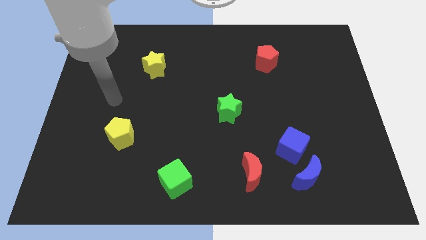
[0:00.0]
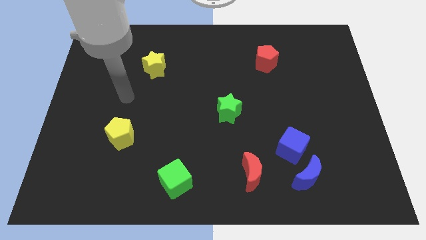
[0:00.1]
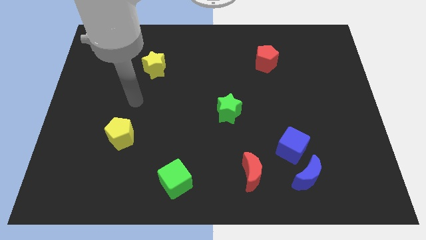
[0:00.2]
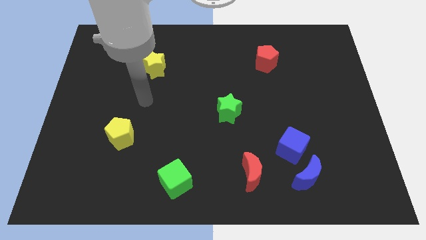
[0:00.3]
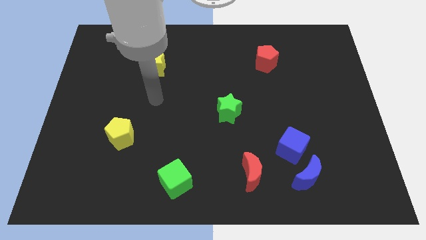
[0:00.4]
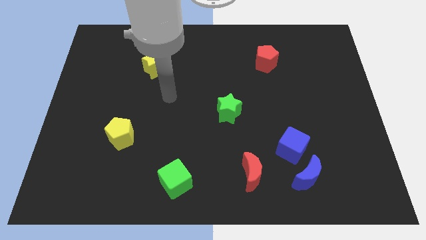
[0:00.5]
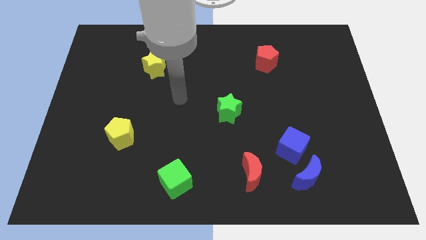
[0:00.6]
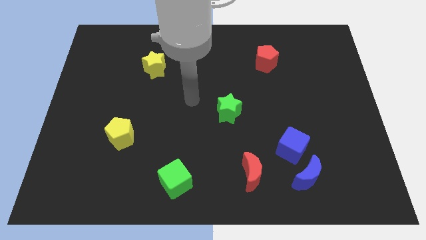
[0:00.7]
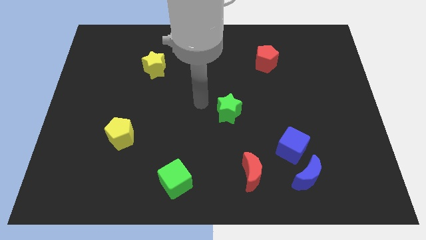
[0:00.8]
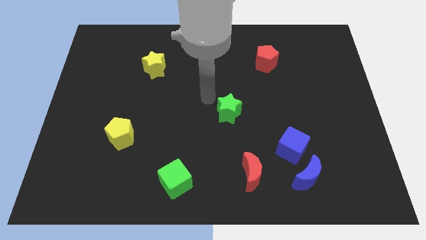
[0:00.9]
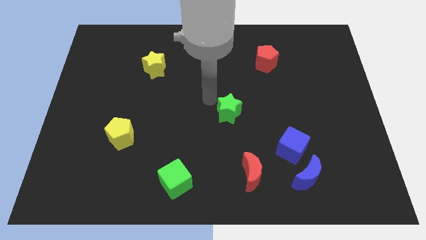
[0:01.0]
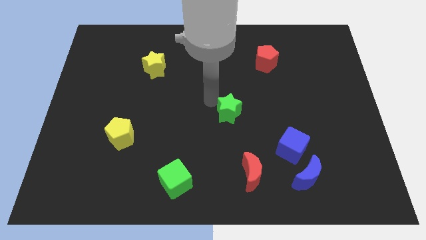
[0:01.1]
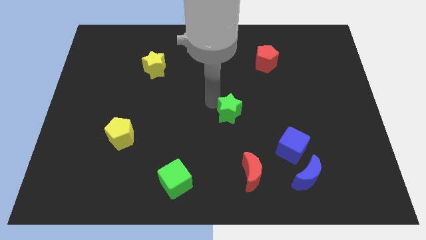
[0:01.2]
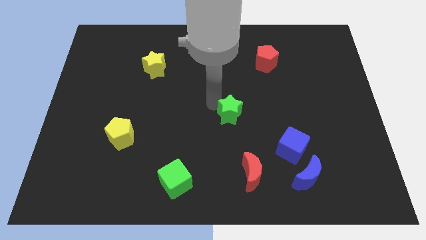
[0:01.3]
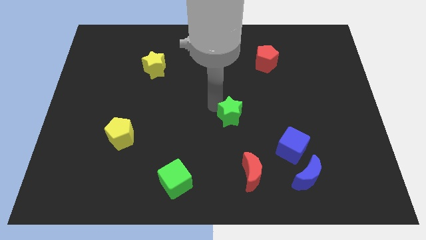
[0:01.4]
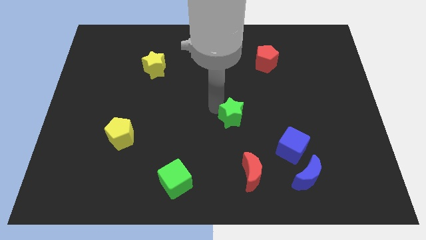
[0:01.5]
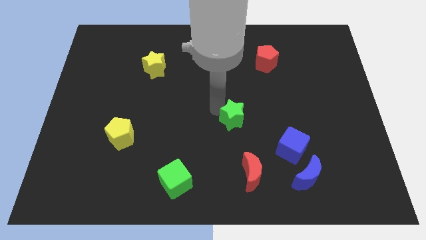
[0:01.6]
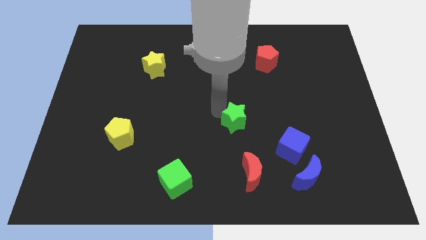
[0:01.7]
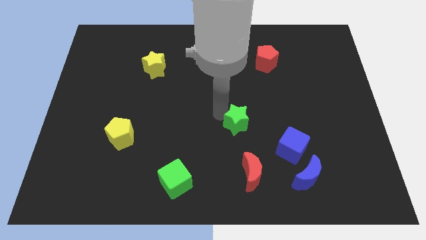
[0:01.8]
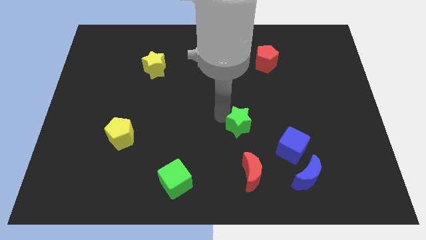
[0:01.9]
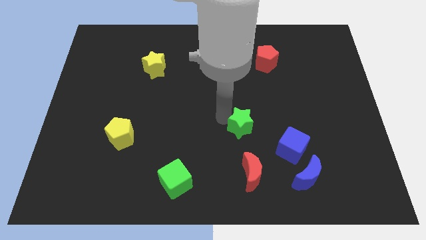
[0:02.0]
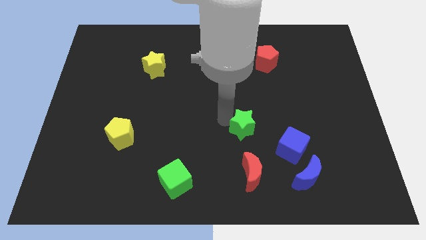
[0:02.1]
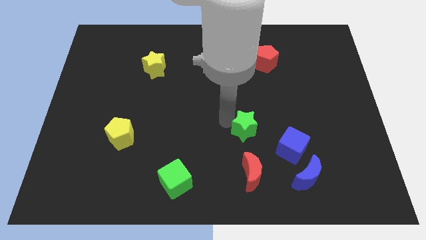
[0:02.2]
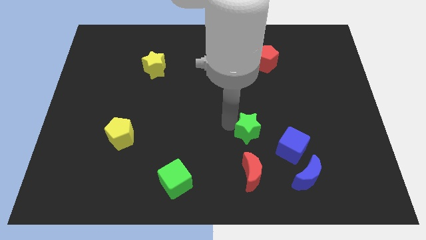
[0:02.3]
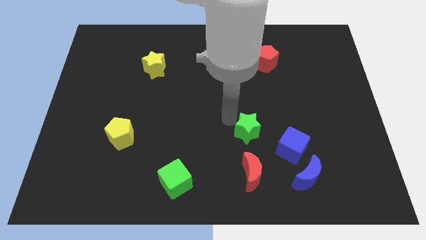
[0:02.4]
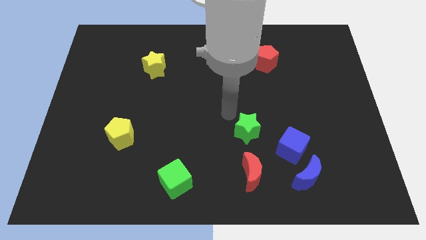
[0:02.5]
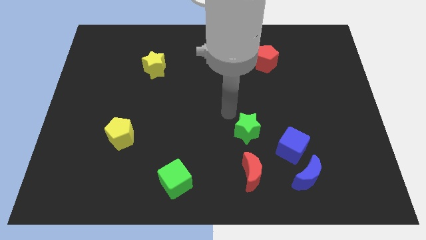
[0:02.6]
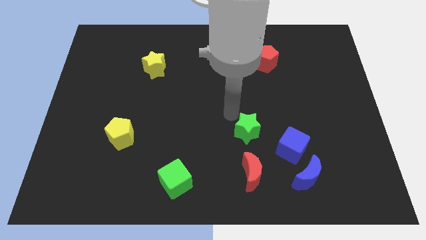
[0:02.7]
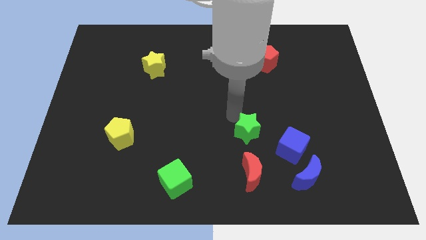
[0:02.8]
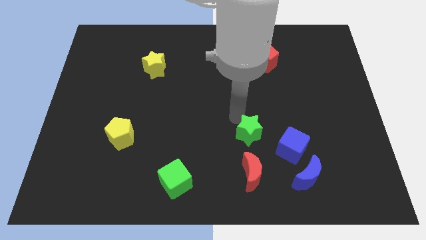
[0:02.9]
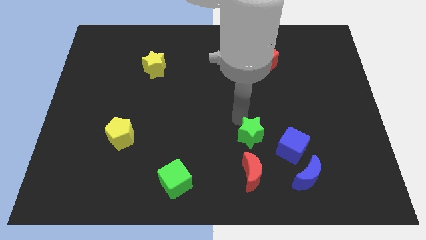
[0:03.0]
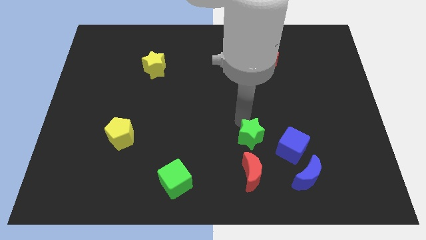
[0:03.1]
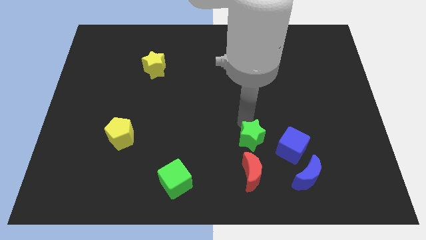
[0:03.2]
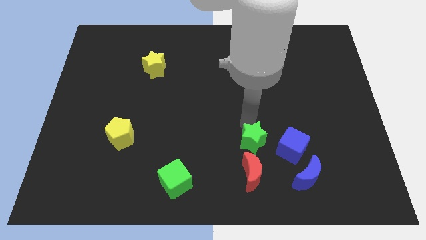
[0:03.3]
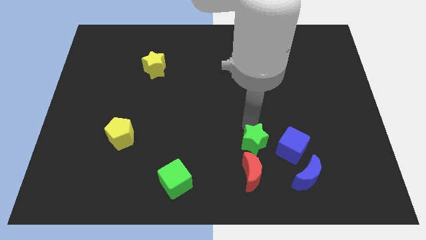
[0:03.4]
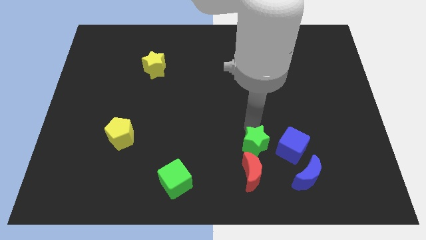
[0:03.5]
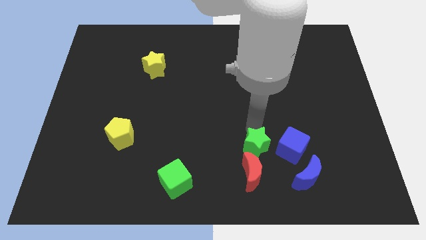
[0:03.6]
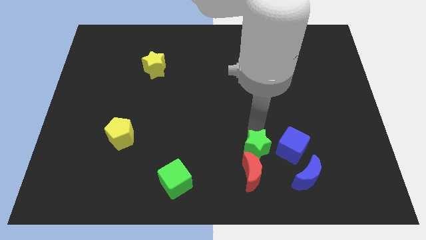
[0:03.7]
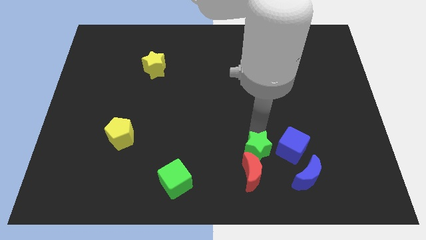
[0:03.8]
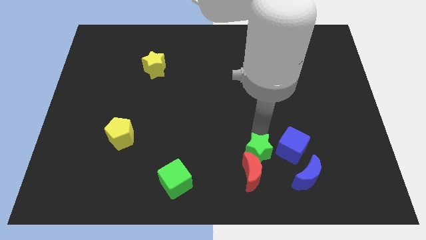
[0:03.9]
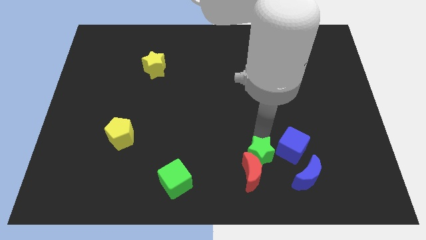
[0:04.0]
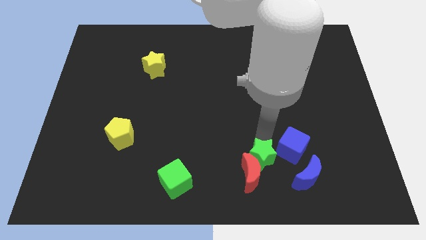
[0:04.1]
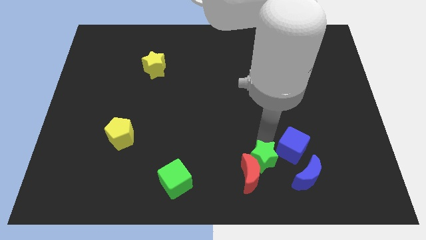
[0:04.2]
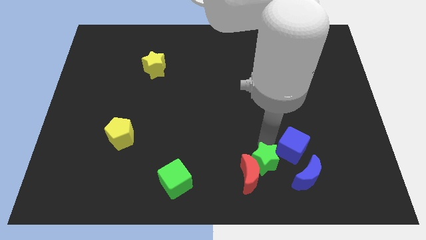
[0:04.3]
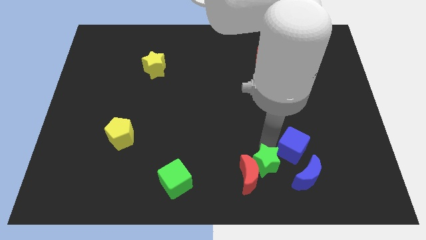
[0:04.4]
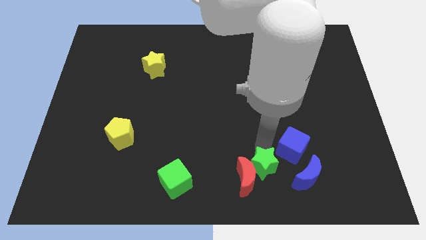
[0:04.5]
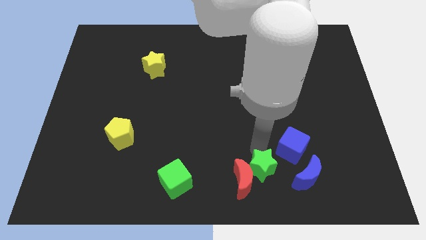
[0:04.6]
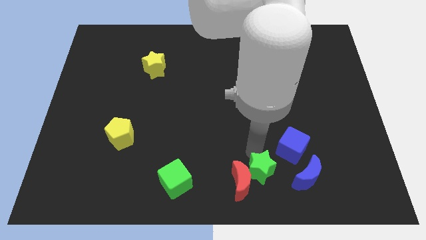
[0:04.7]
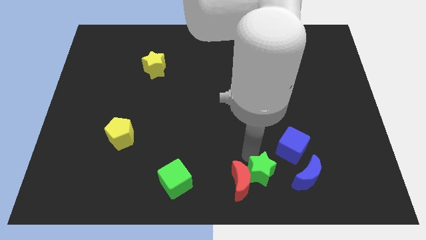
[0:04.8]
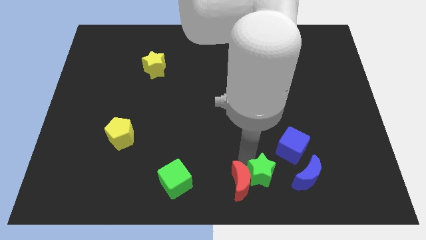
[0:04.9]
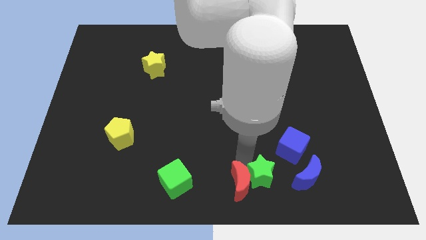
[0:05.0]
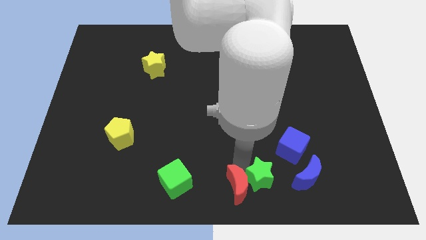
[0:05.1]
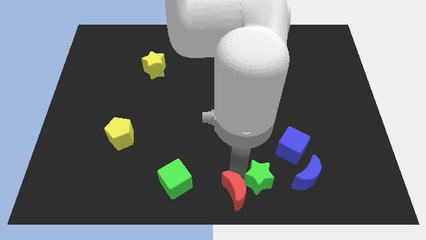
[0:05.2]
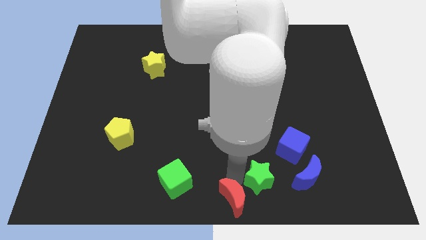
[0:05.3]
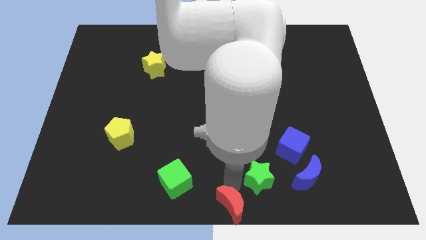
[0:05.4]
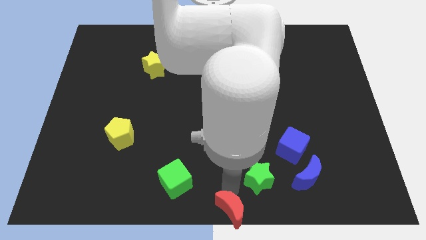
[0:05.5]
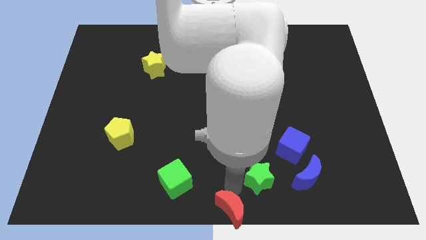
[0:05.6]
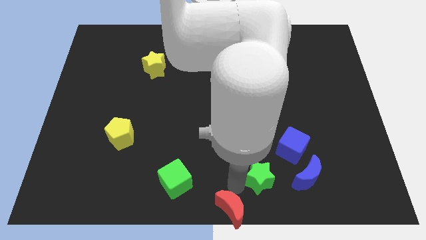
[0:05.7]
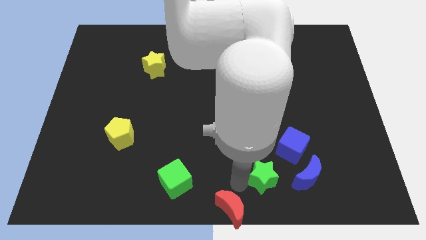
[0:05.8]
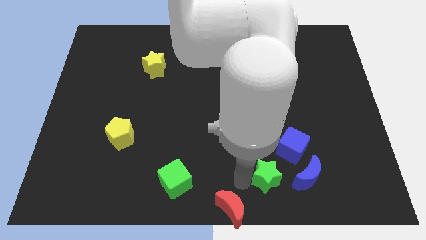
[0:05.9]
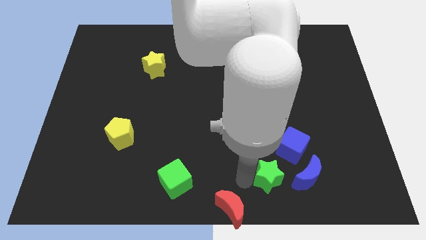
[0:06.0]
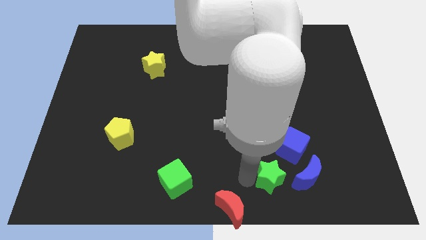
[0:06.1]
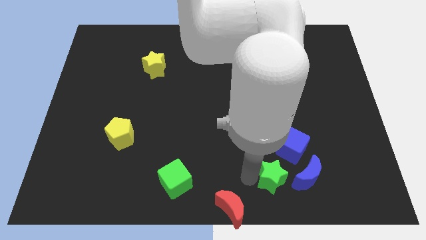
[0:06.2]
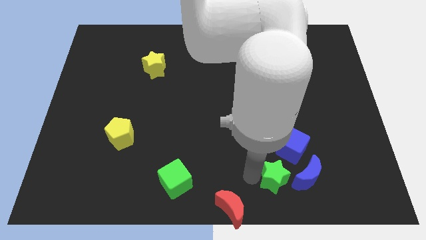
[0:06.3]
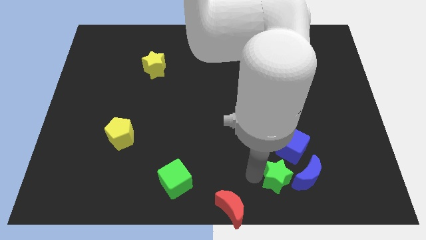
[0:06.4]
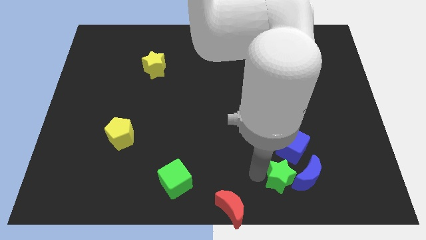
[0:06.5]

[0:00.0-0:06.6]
push the green star to the blue moon

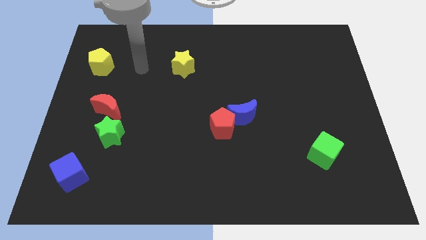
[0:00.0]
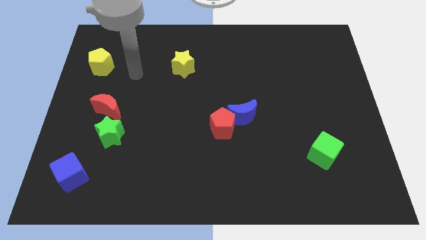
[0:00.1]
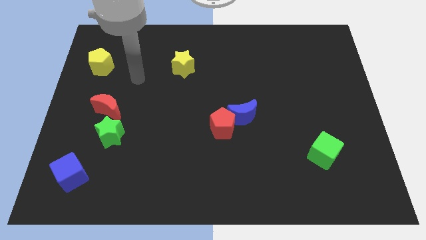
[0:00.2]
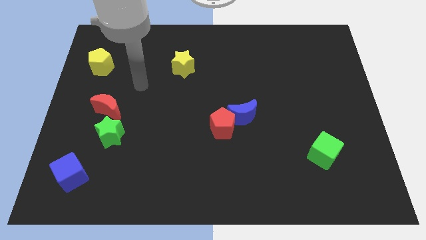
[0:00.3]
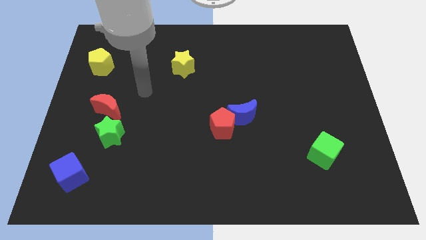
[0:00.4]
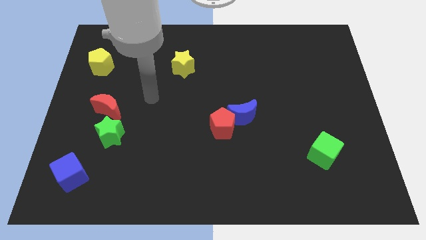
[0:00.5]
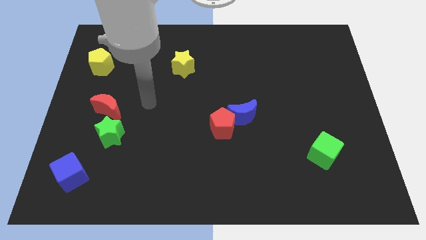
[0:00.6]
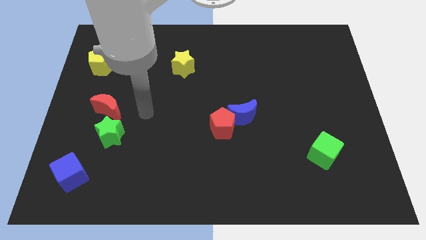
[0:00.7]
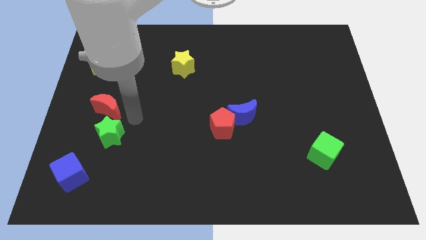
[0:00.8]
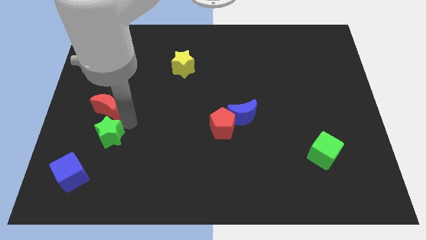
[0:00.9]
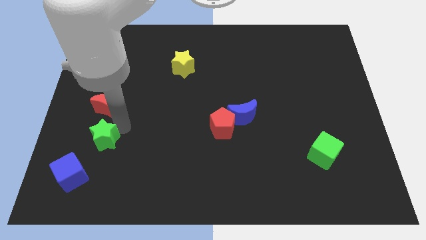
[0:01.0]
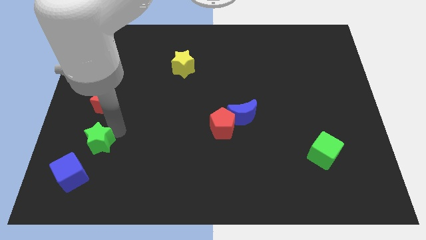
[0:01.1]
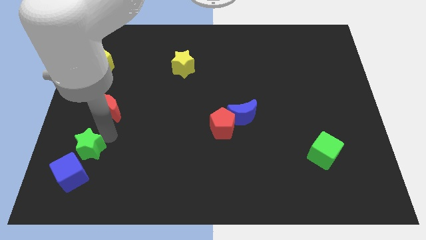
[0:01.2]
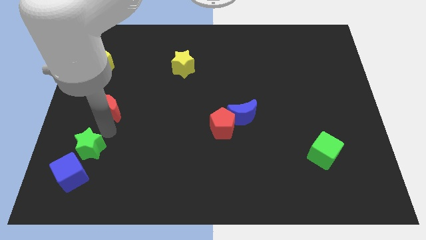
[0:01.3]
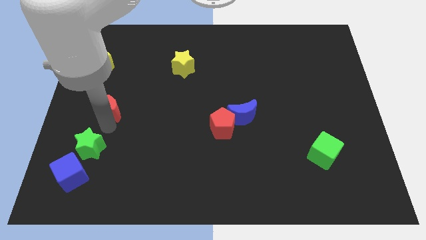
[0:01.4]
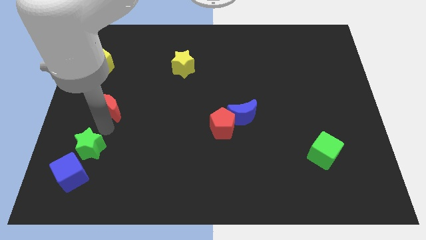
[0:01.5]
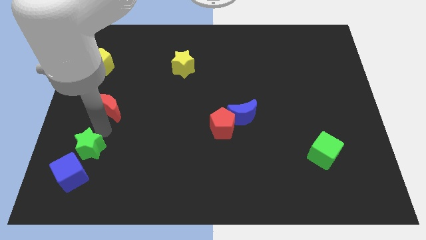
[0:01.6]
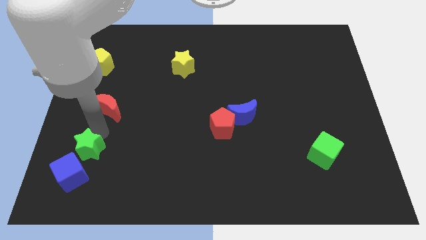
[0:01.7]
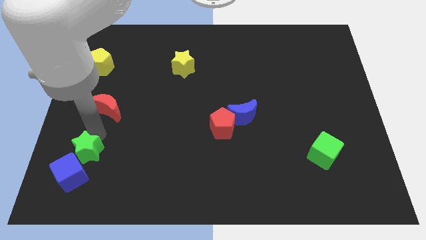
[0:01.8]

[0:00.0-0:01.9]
put the green star to the blue cube

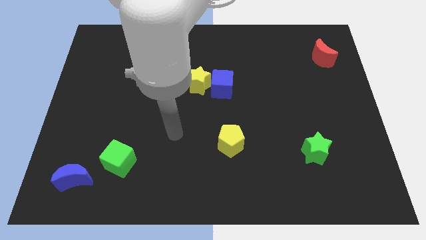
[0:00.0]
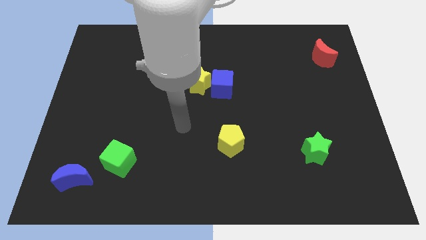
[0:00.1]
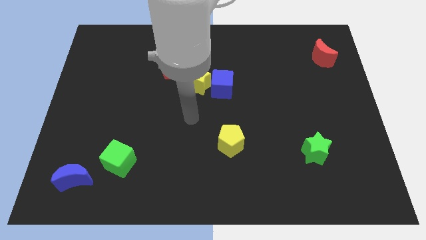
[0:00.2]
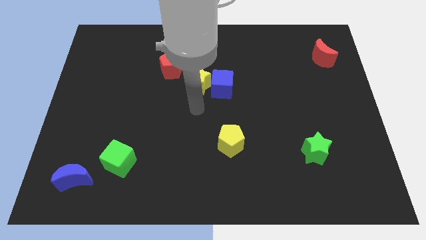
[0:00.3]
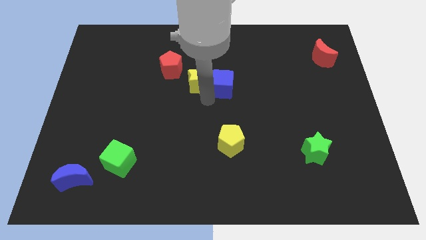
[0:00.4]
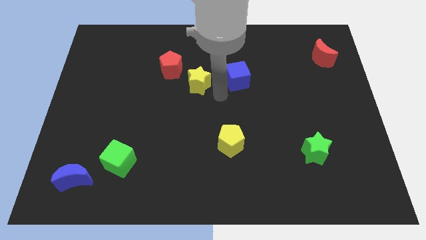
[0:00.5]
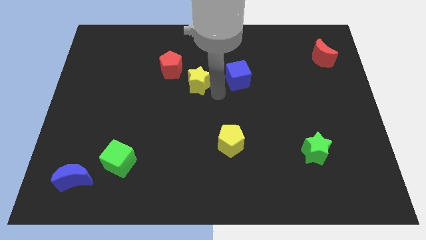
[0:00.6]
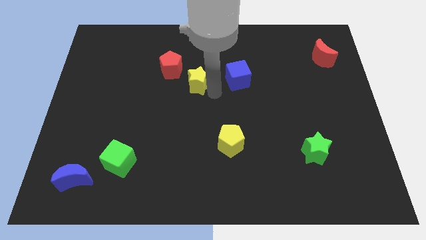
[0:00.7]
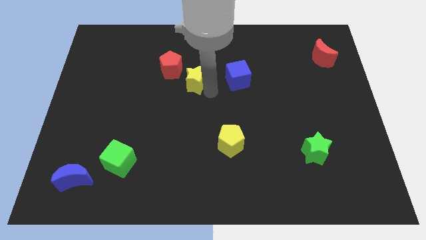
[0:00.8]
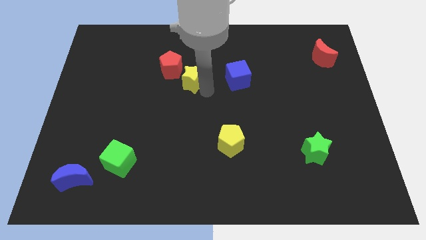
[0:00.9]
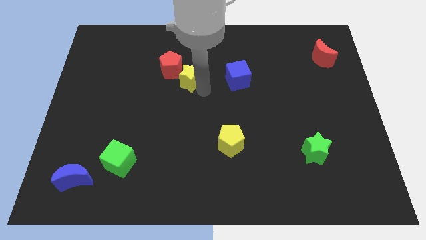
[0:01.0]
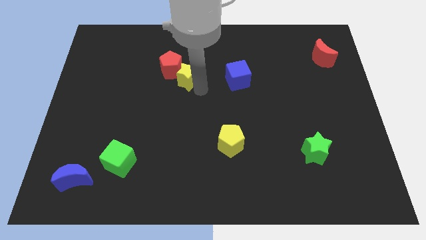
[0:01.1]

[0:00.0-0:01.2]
put the yellow star to the red pentagon
